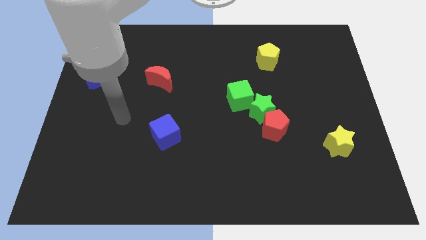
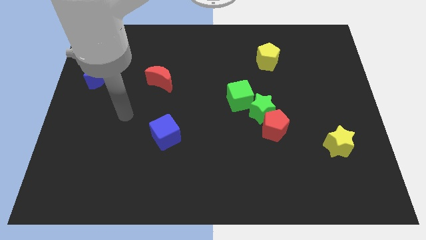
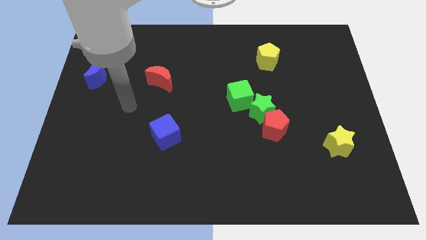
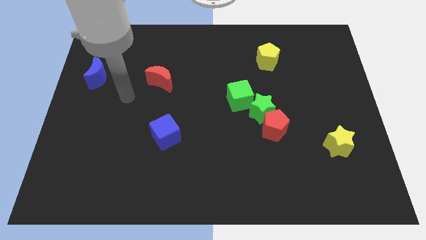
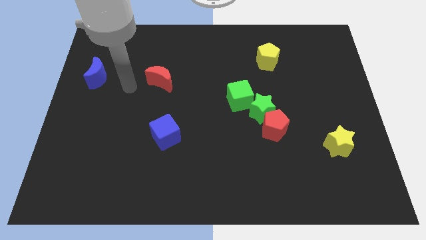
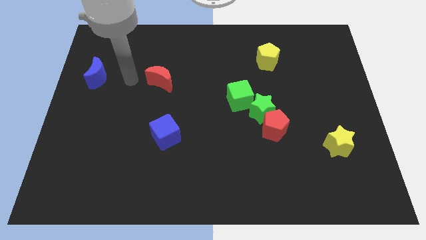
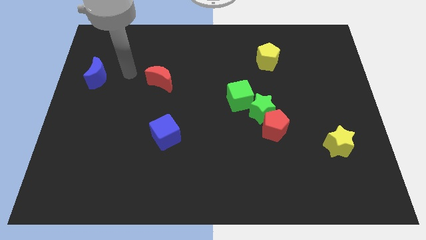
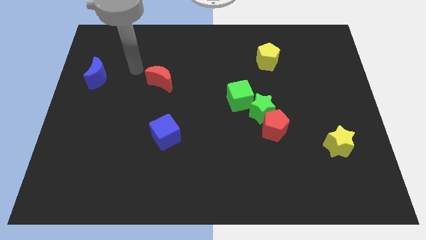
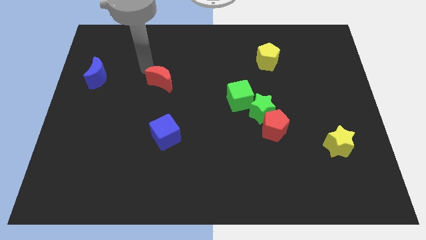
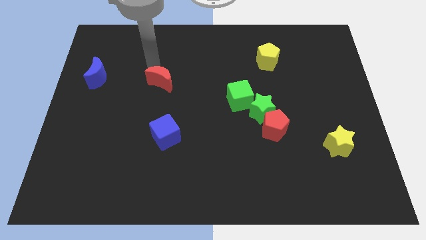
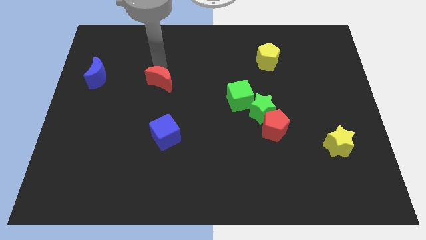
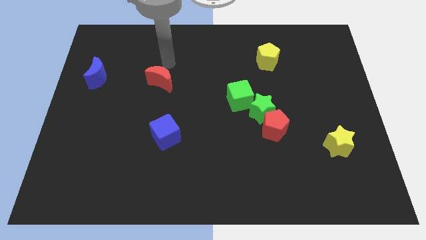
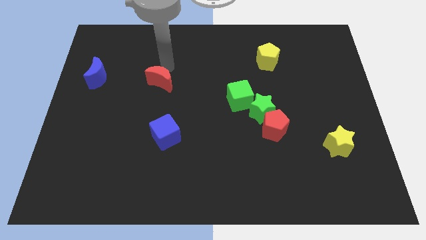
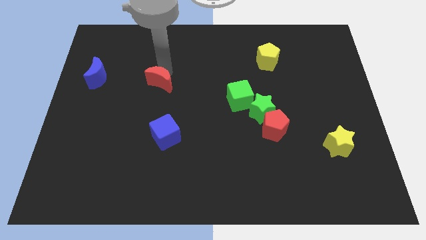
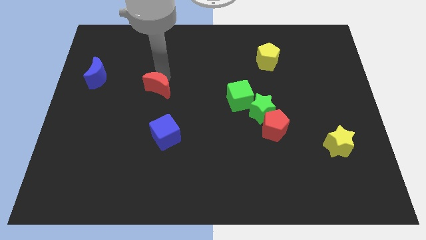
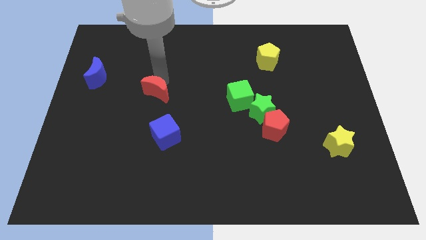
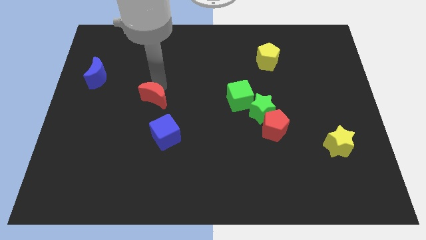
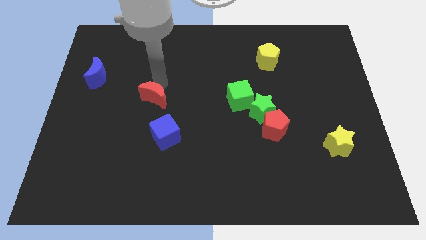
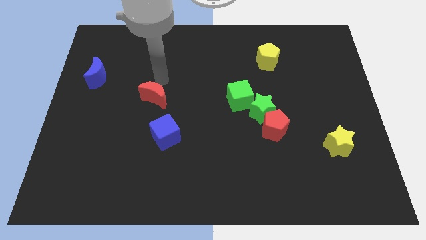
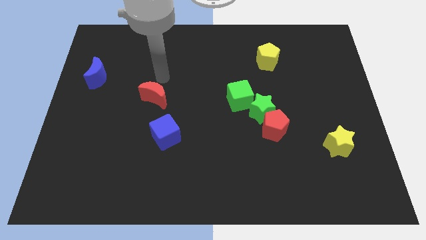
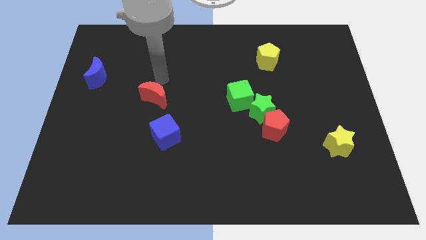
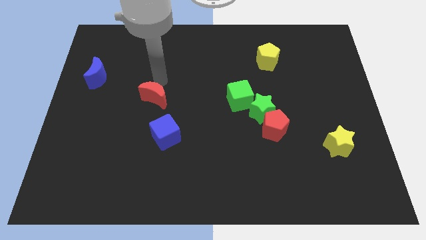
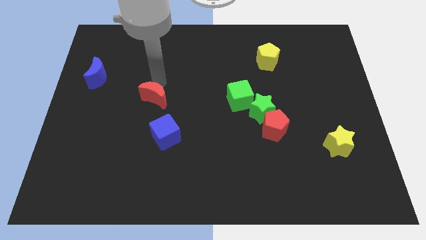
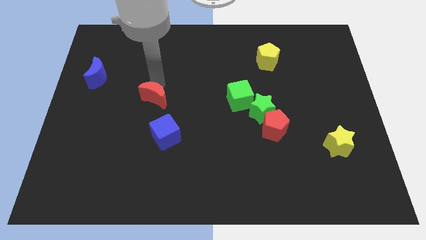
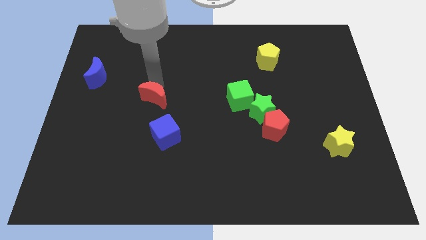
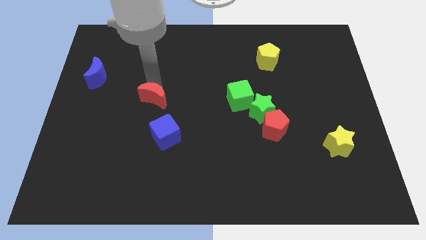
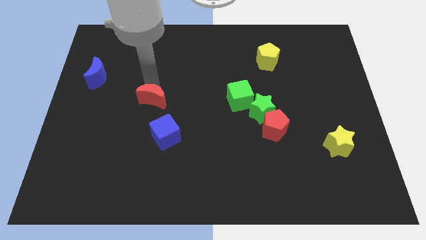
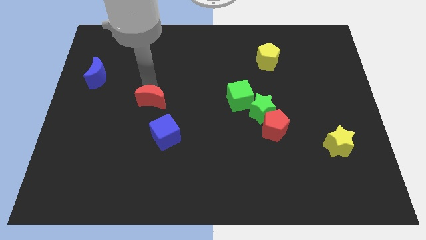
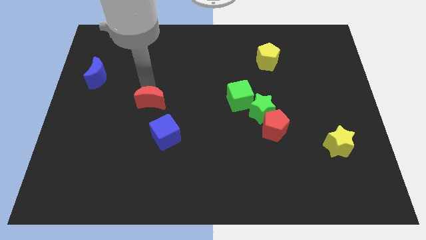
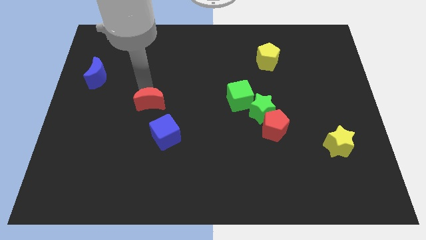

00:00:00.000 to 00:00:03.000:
slightly move the red moon down

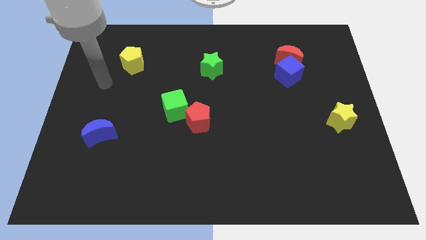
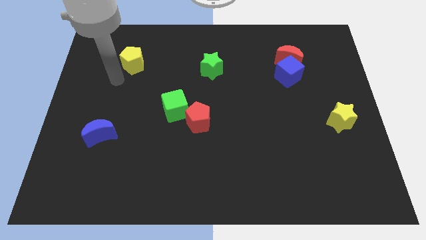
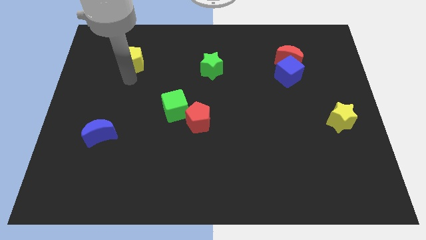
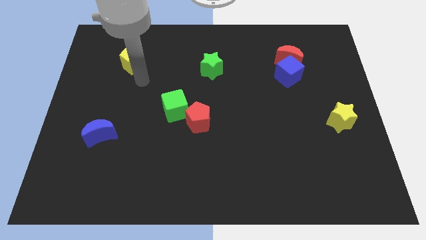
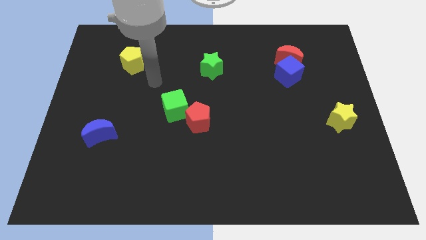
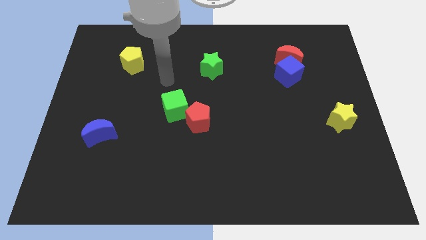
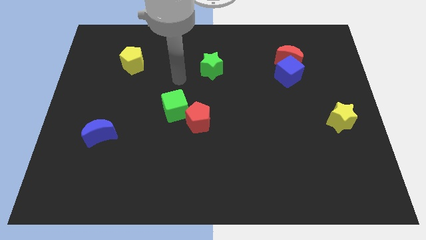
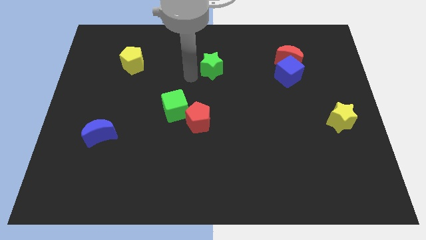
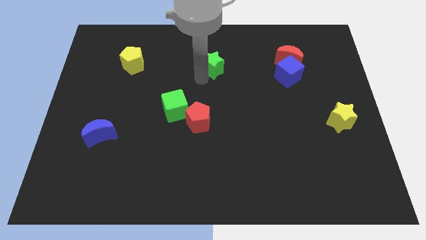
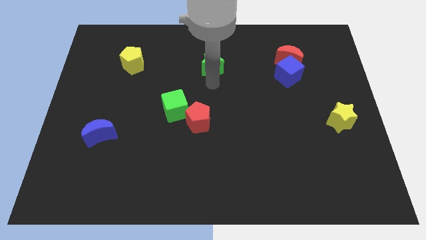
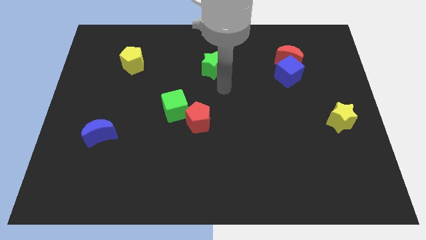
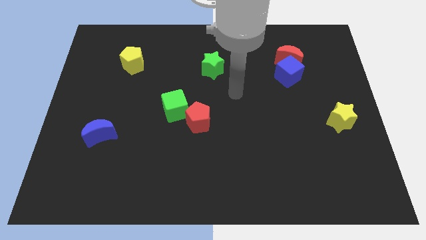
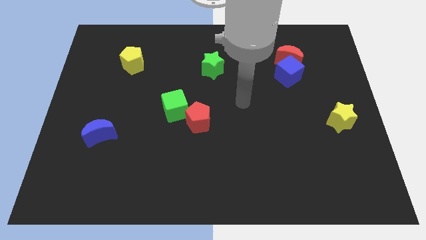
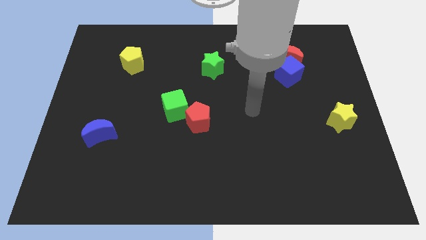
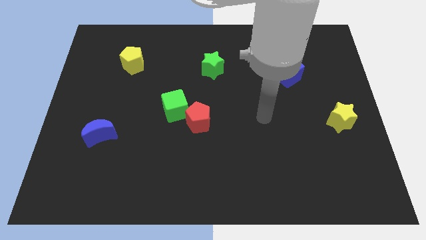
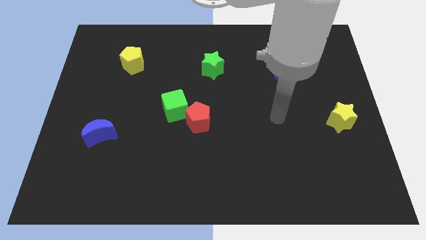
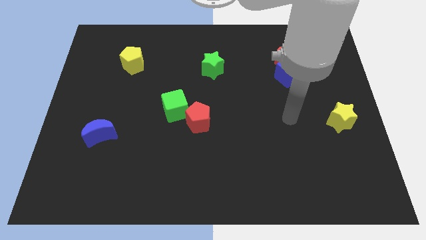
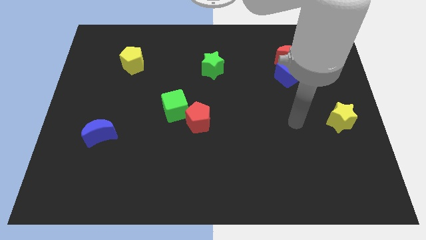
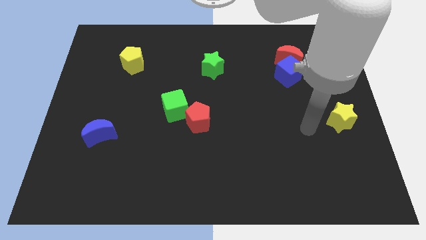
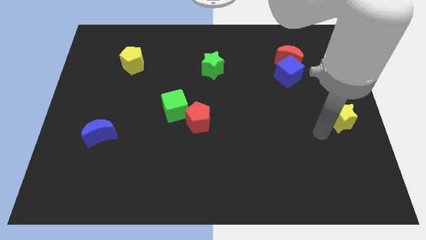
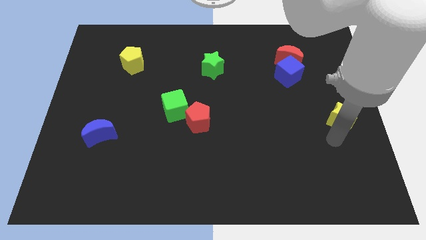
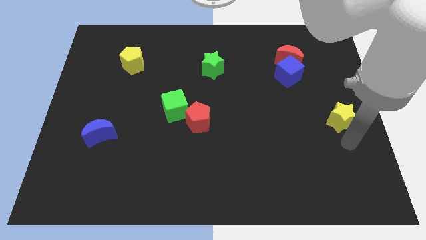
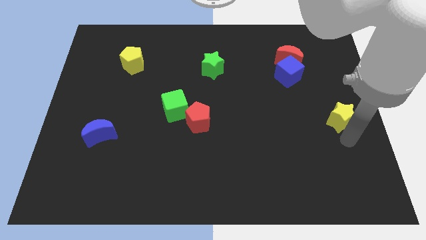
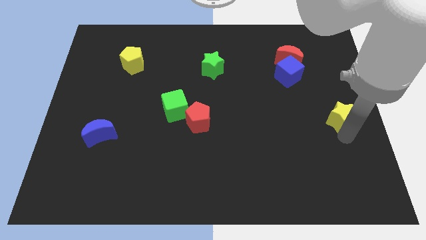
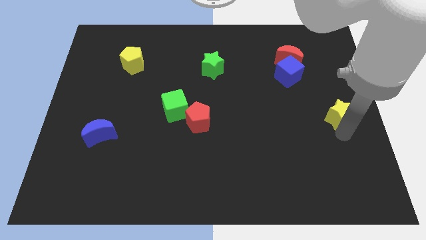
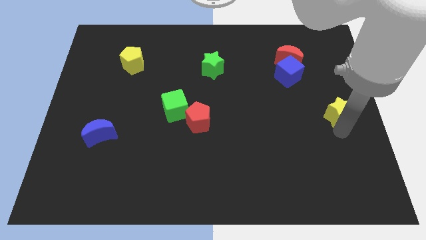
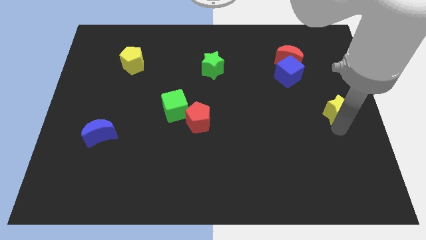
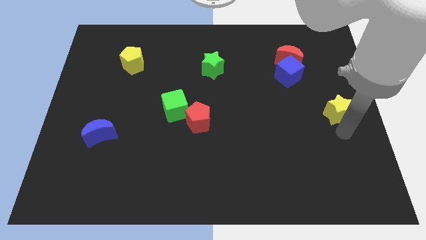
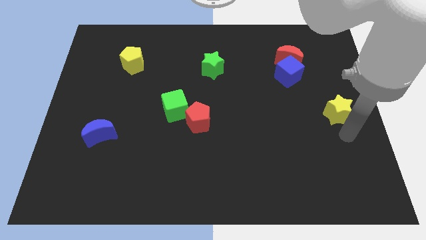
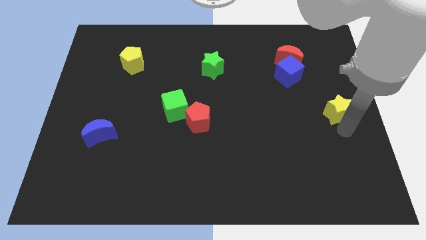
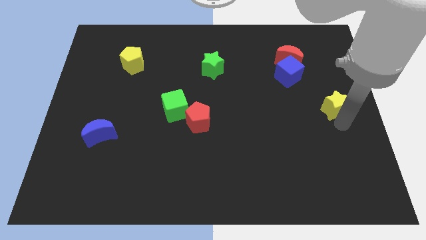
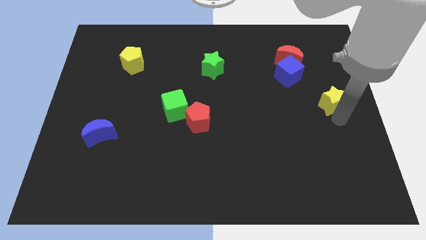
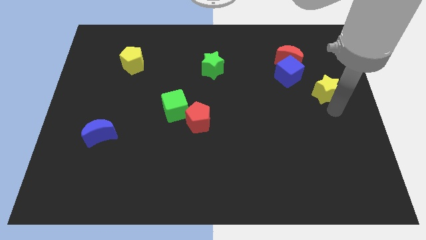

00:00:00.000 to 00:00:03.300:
slide the yellow star a little bit up

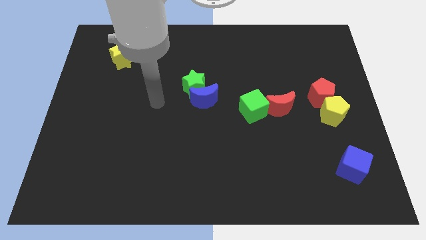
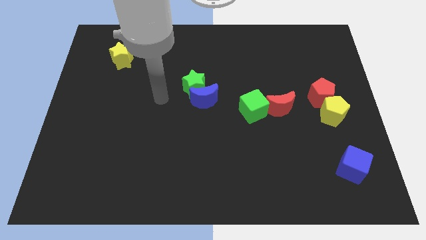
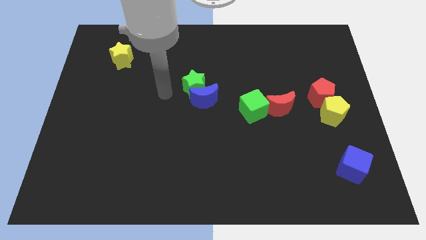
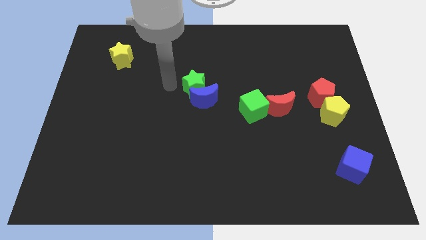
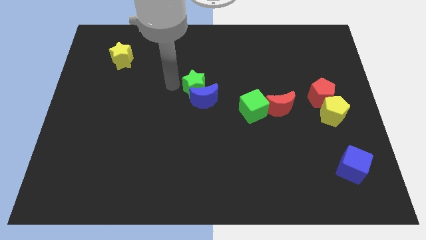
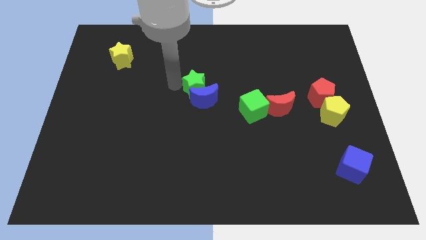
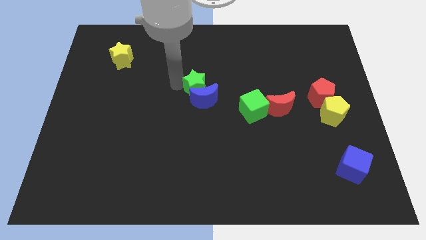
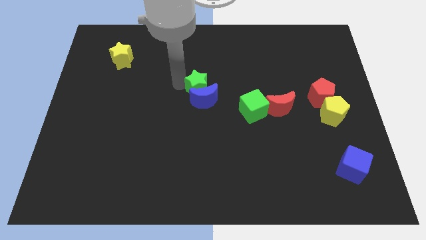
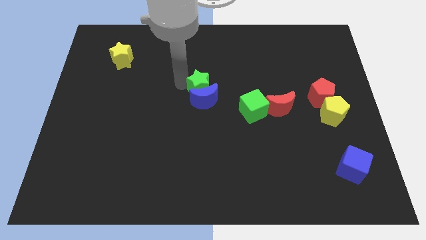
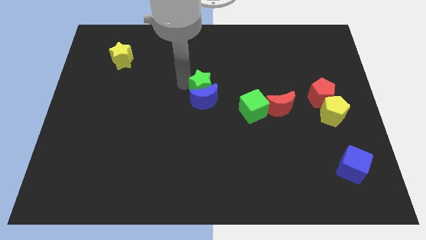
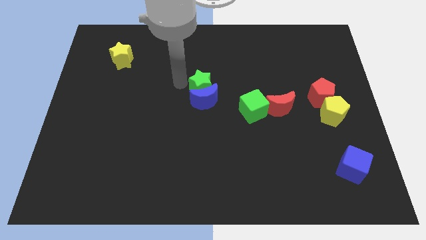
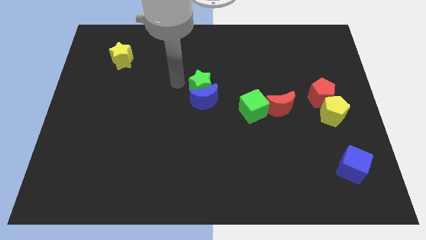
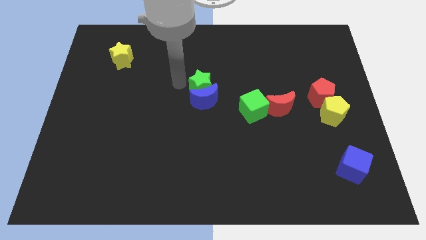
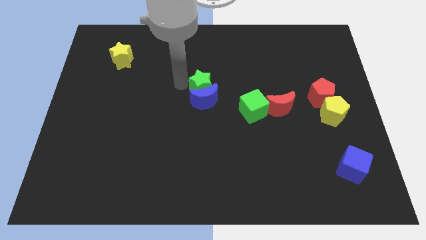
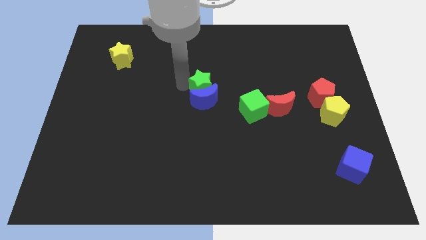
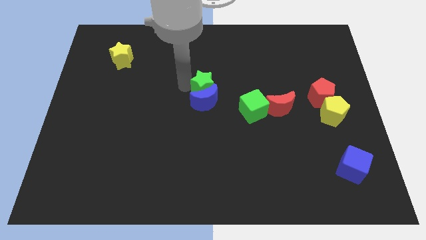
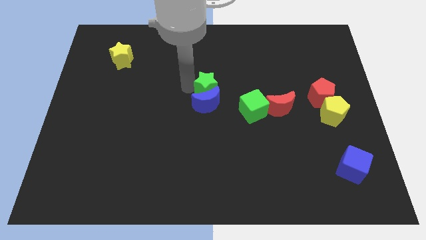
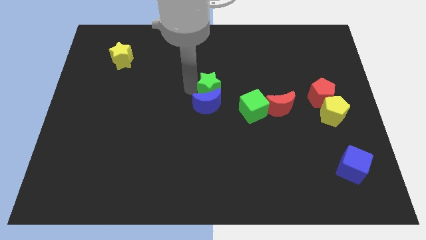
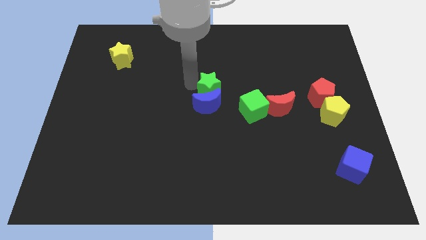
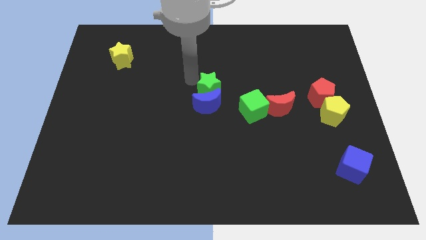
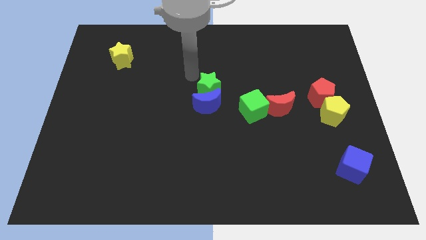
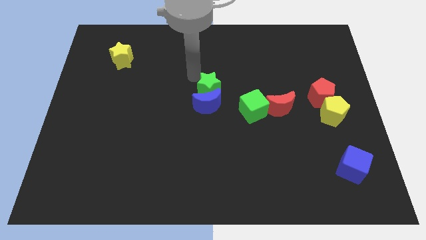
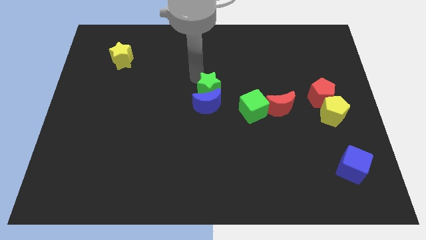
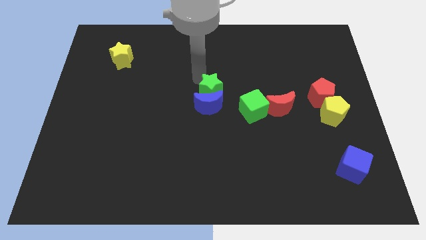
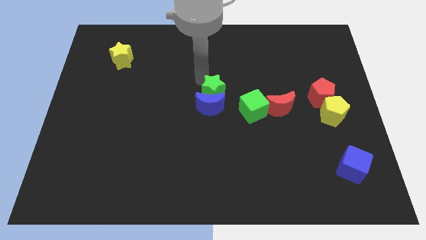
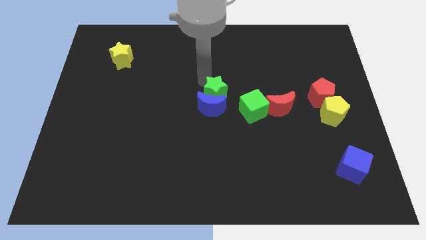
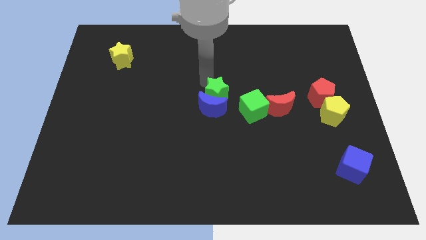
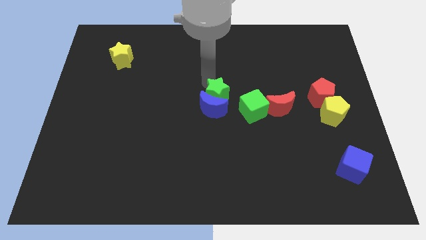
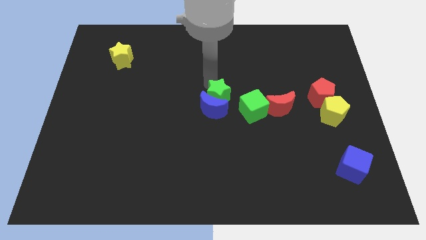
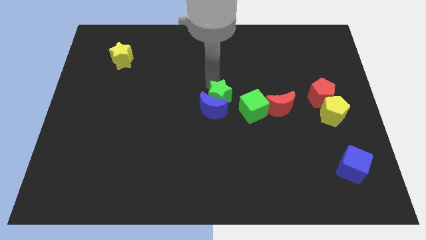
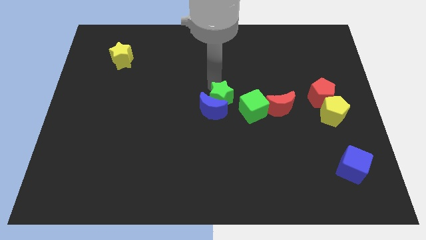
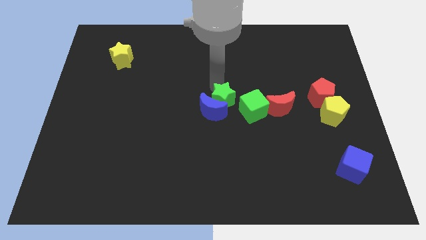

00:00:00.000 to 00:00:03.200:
slide the green star down and to the right a little
